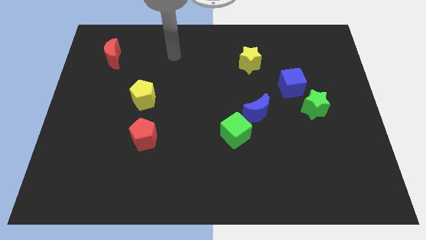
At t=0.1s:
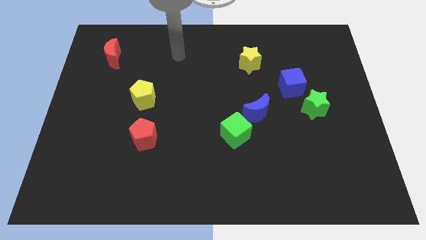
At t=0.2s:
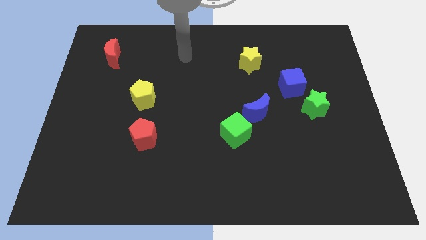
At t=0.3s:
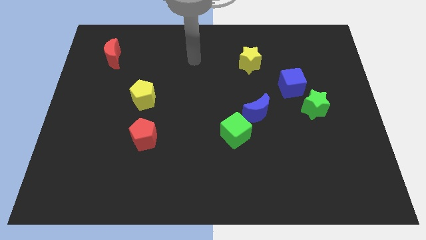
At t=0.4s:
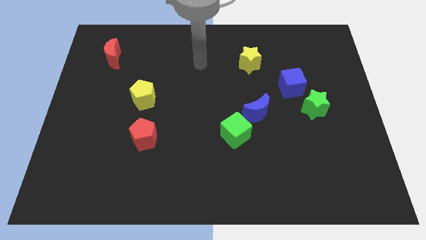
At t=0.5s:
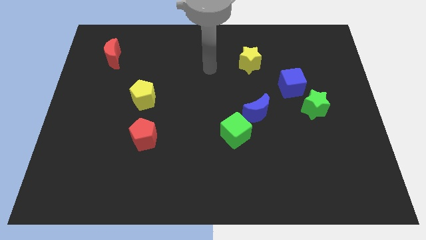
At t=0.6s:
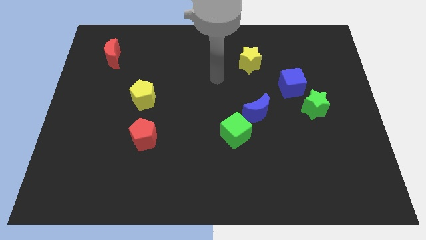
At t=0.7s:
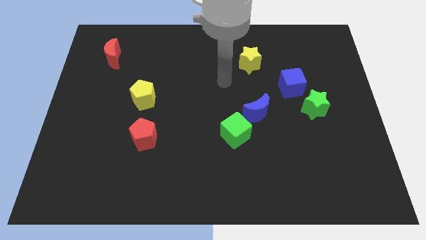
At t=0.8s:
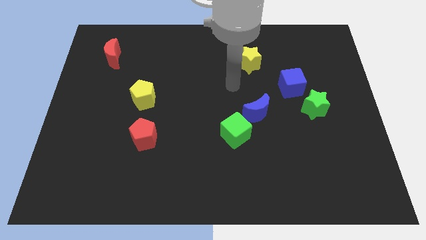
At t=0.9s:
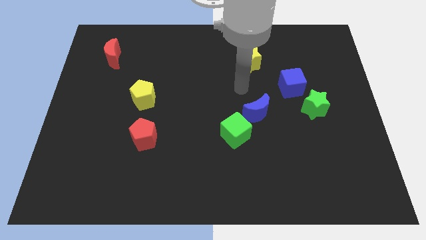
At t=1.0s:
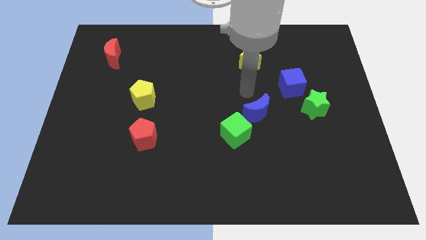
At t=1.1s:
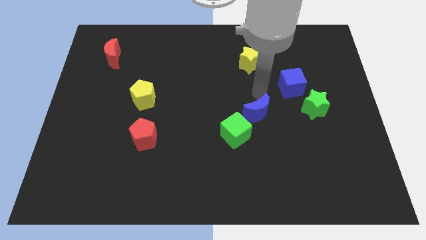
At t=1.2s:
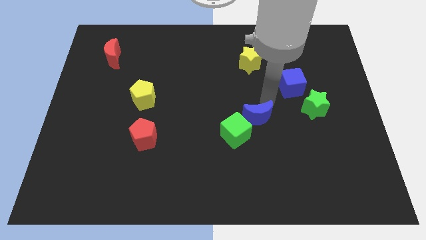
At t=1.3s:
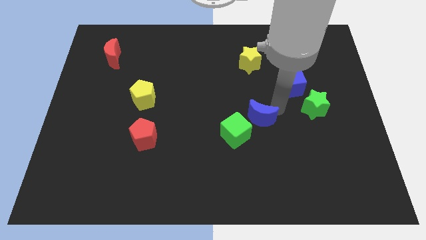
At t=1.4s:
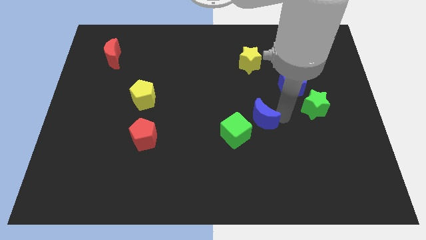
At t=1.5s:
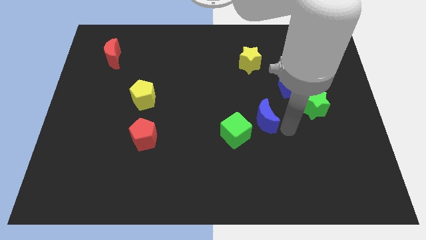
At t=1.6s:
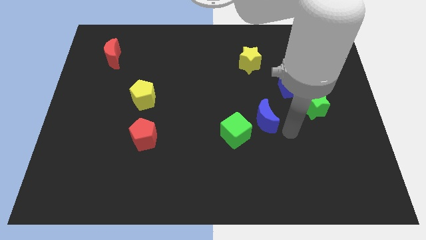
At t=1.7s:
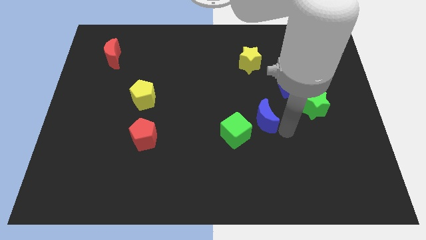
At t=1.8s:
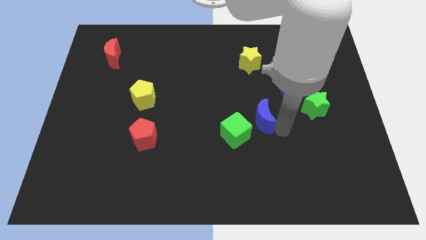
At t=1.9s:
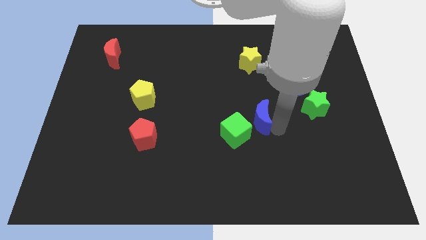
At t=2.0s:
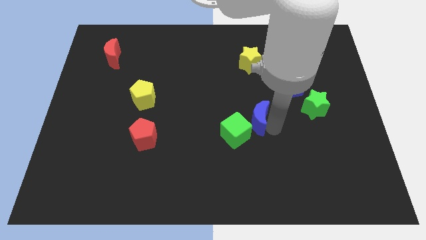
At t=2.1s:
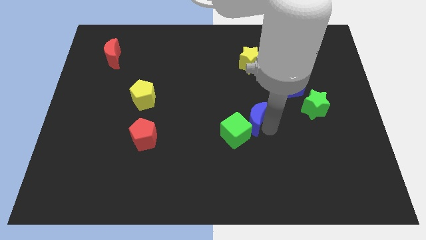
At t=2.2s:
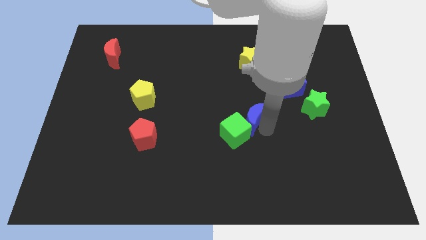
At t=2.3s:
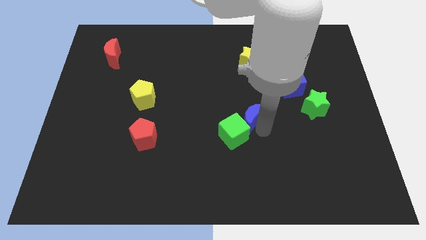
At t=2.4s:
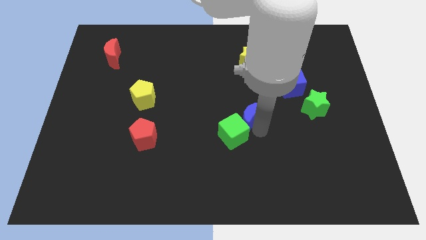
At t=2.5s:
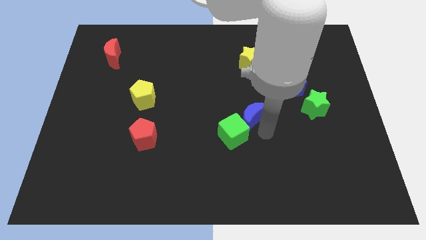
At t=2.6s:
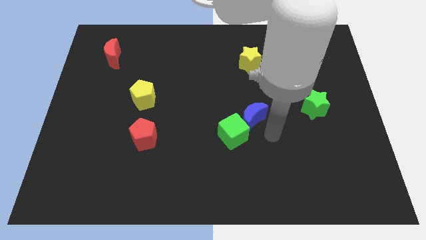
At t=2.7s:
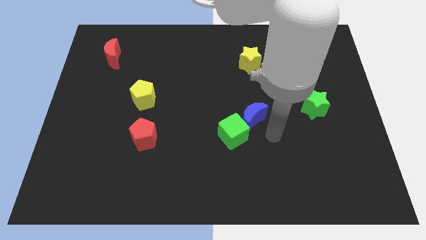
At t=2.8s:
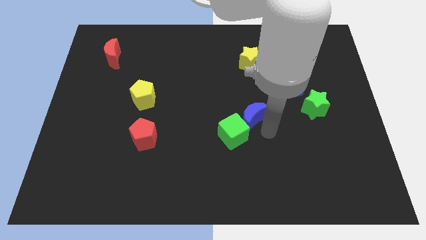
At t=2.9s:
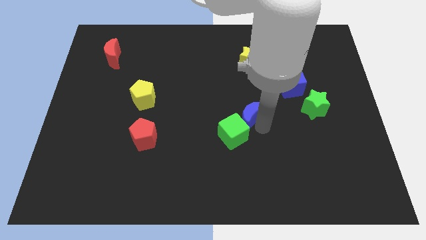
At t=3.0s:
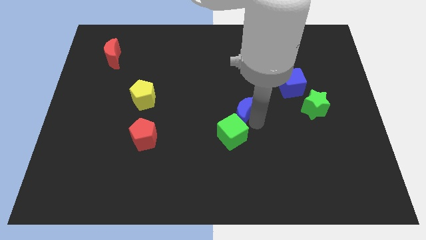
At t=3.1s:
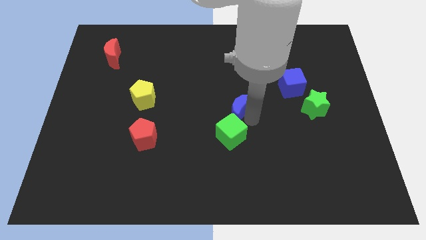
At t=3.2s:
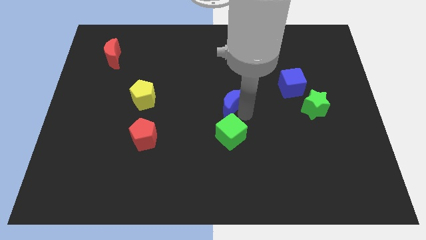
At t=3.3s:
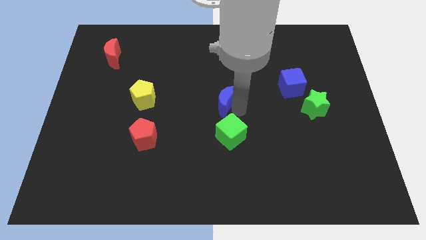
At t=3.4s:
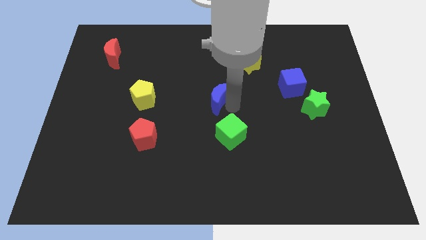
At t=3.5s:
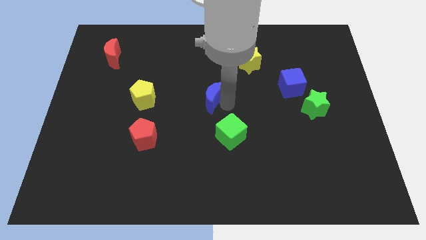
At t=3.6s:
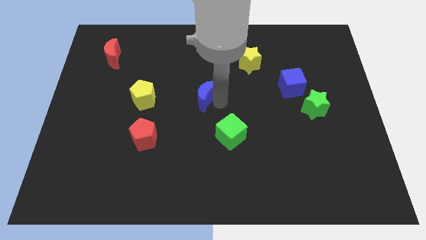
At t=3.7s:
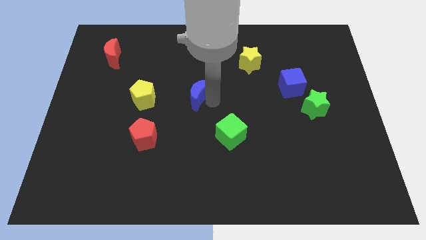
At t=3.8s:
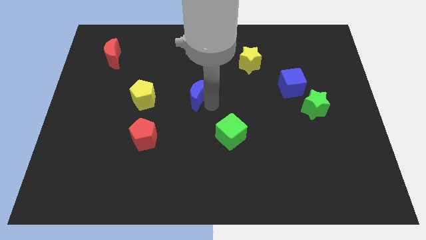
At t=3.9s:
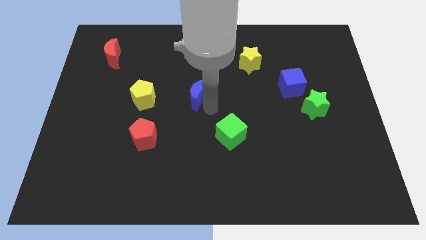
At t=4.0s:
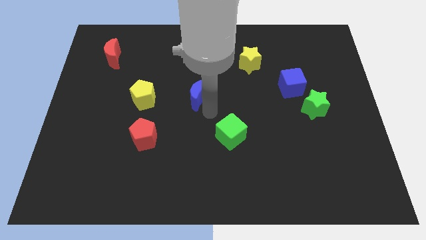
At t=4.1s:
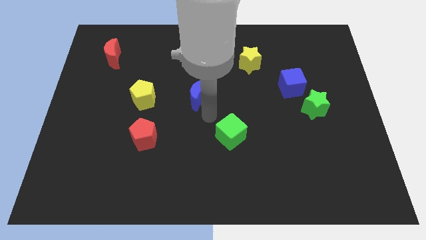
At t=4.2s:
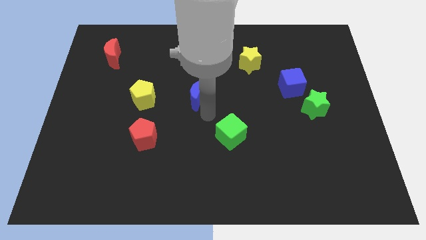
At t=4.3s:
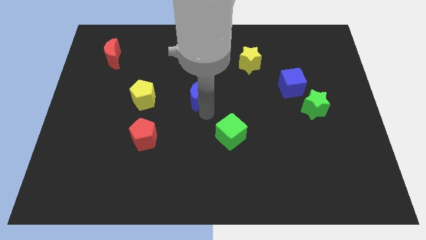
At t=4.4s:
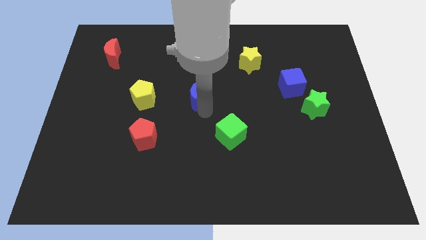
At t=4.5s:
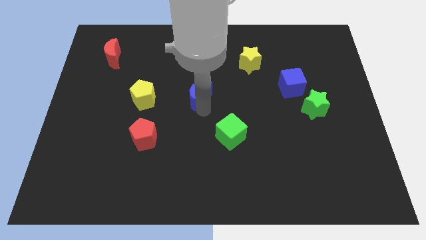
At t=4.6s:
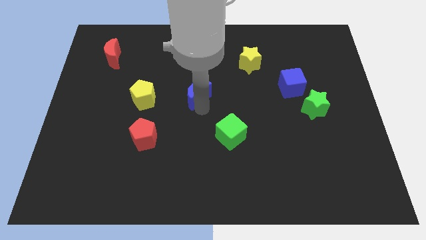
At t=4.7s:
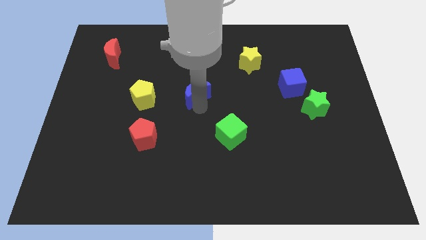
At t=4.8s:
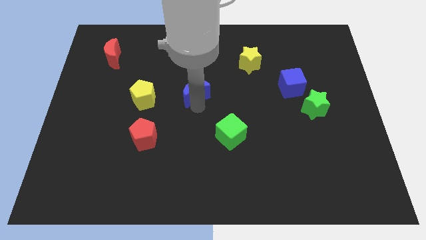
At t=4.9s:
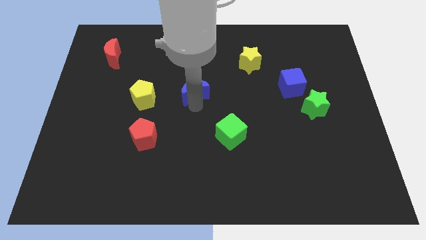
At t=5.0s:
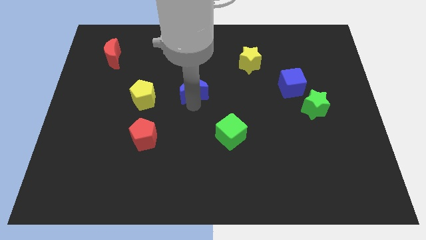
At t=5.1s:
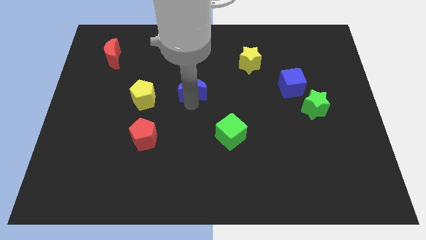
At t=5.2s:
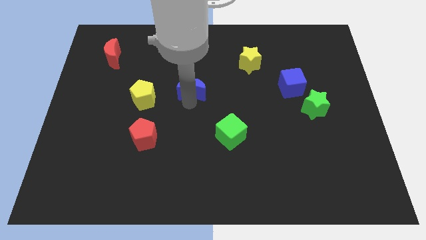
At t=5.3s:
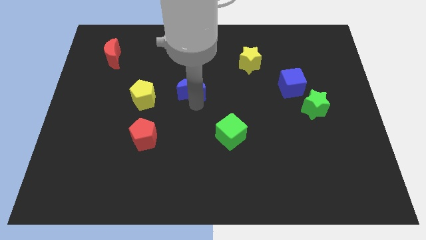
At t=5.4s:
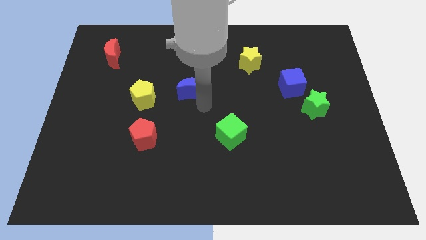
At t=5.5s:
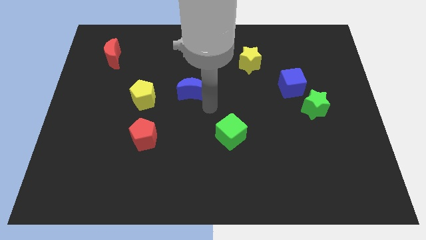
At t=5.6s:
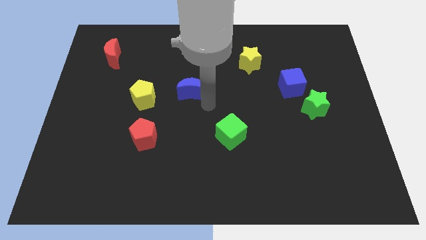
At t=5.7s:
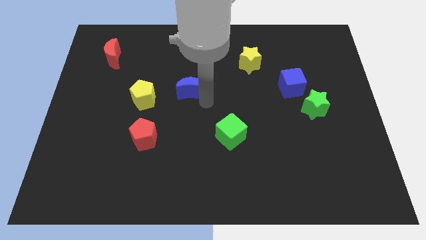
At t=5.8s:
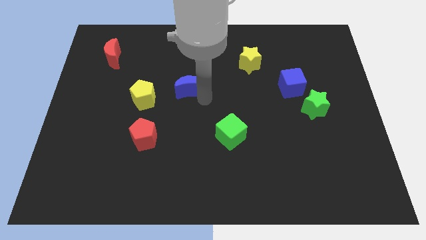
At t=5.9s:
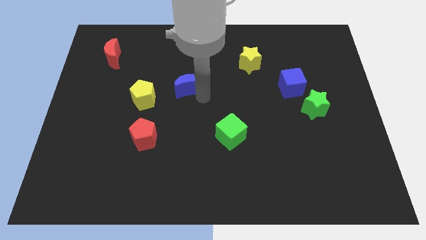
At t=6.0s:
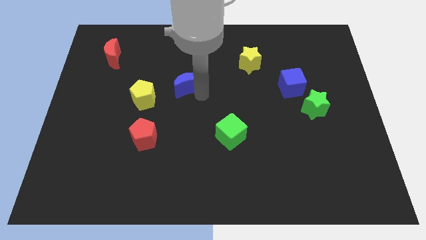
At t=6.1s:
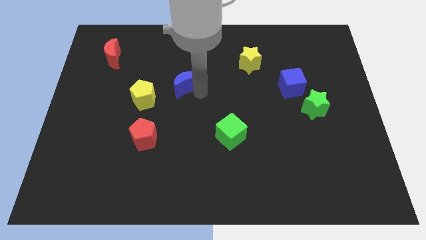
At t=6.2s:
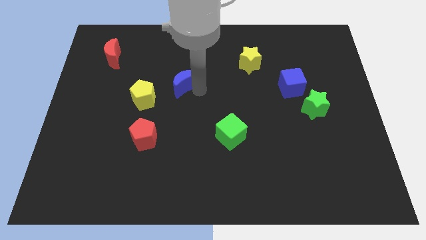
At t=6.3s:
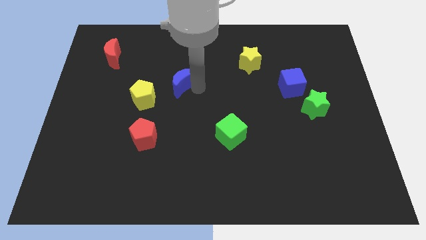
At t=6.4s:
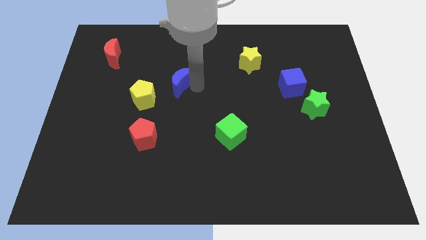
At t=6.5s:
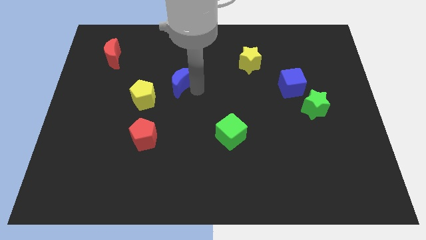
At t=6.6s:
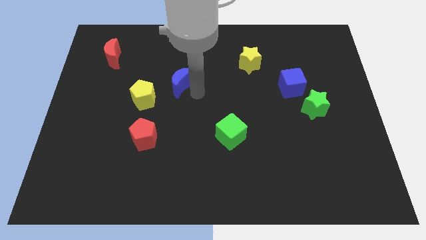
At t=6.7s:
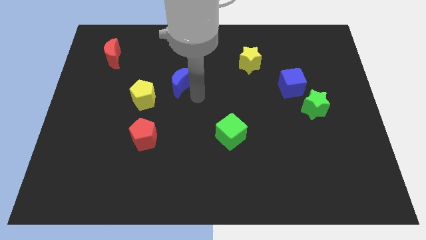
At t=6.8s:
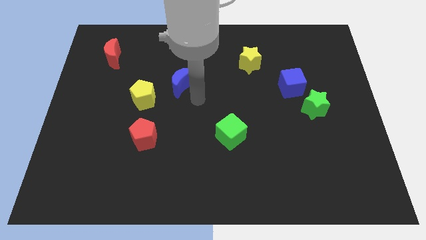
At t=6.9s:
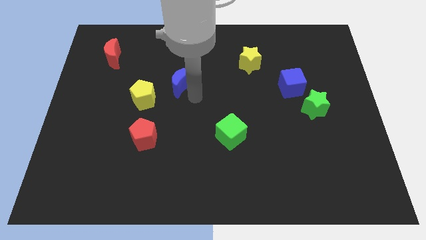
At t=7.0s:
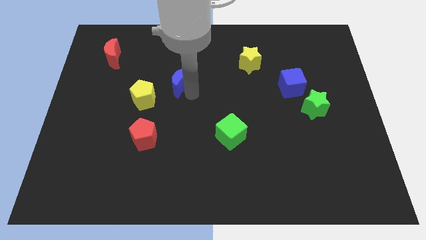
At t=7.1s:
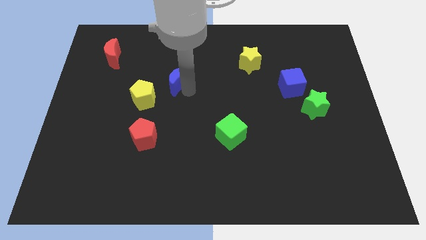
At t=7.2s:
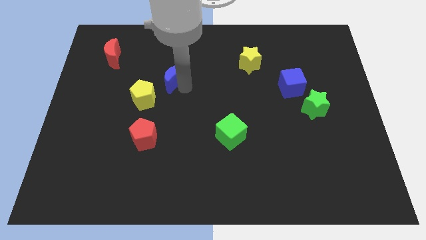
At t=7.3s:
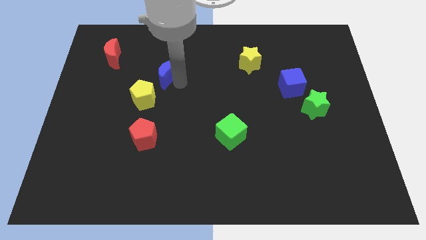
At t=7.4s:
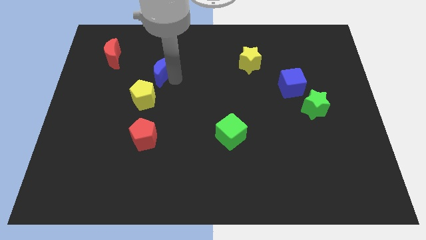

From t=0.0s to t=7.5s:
move the blue moon to the top of the yellow pentagon

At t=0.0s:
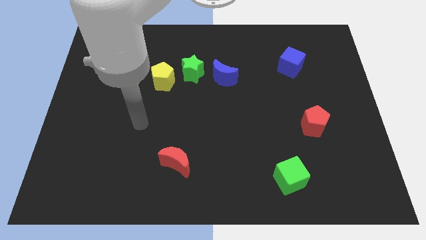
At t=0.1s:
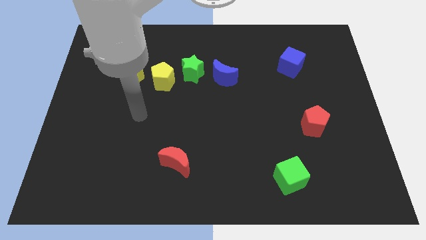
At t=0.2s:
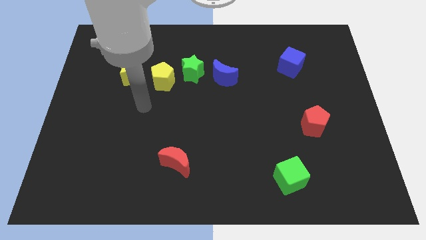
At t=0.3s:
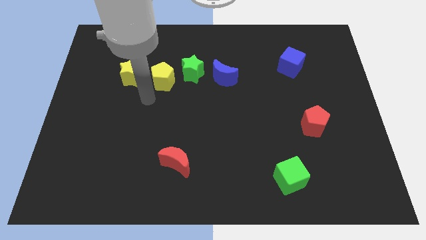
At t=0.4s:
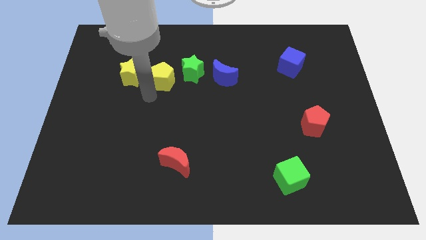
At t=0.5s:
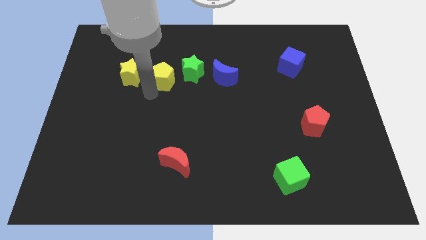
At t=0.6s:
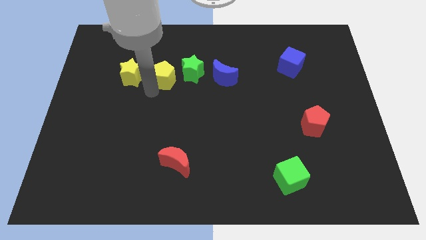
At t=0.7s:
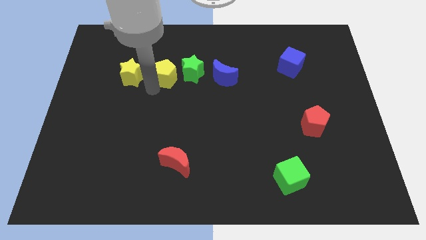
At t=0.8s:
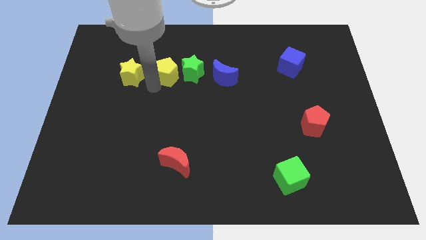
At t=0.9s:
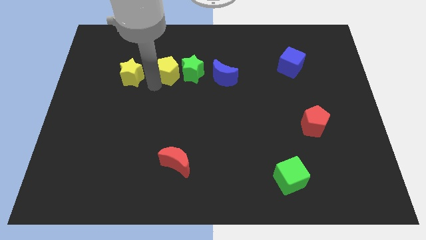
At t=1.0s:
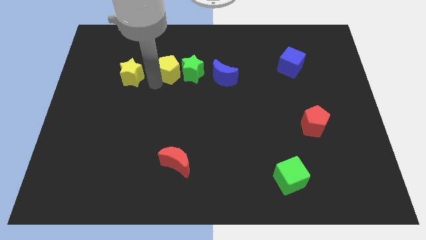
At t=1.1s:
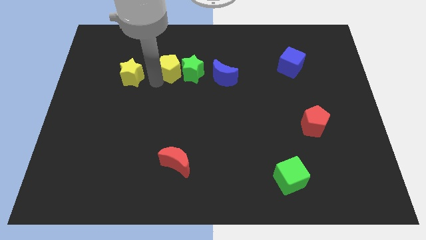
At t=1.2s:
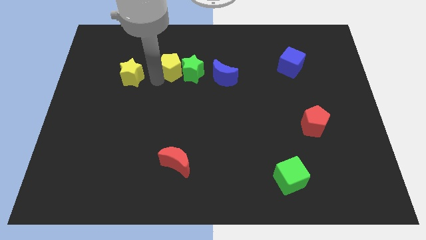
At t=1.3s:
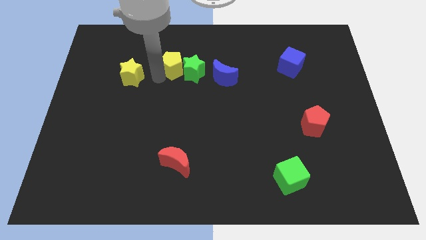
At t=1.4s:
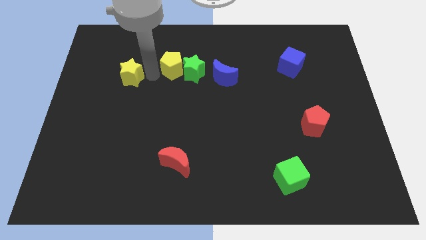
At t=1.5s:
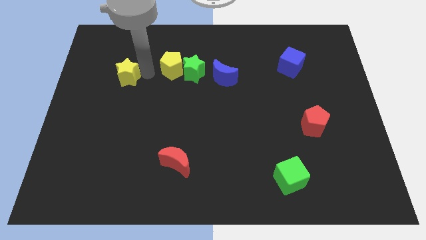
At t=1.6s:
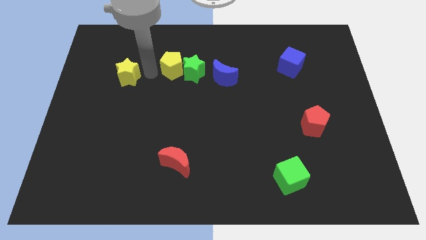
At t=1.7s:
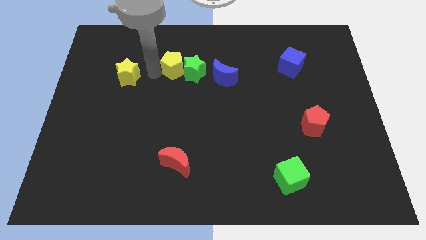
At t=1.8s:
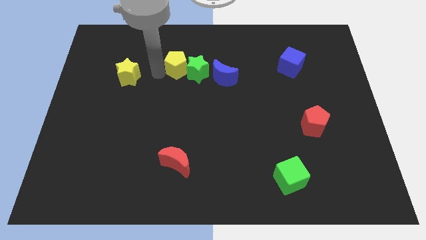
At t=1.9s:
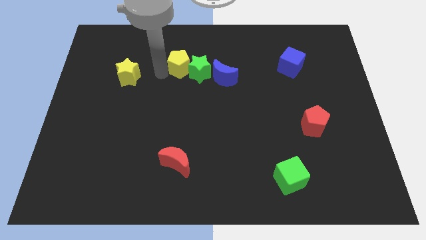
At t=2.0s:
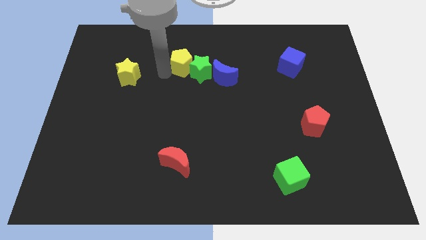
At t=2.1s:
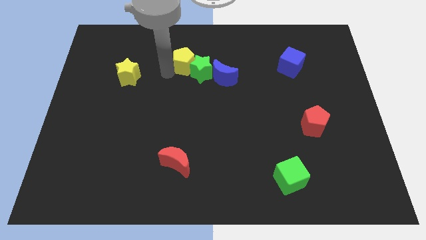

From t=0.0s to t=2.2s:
push the yellow pentagon diagonally up and to the left of the blue moon
